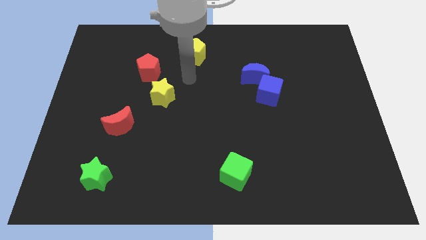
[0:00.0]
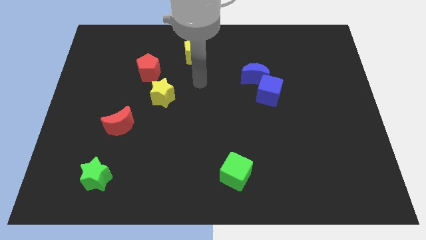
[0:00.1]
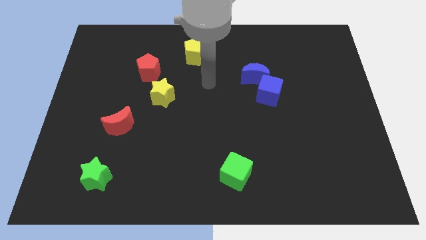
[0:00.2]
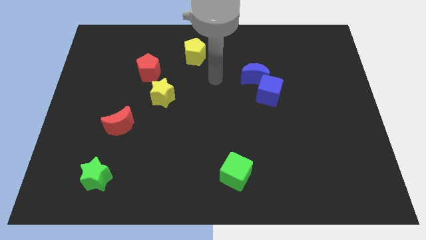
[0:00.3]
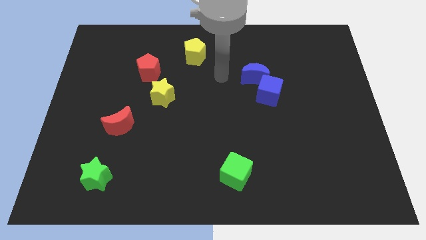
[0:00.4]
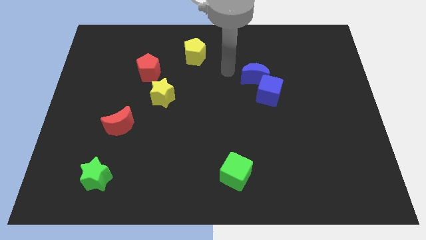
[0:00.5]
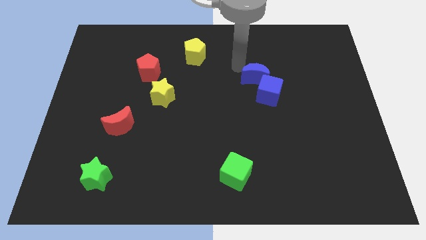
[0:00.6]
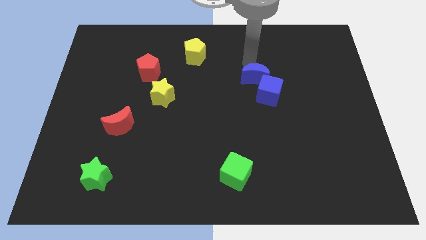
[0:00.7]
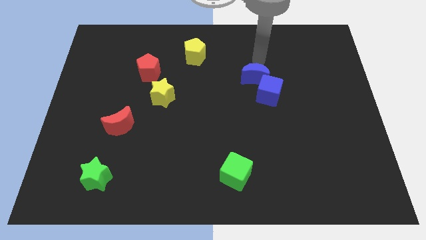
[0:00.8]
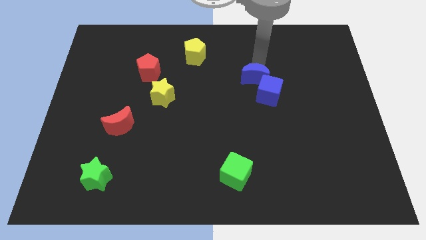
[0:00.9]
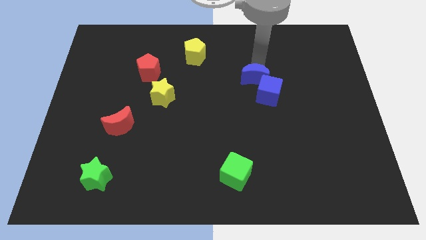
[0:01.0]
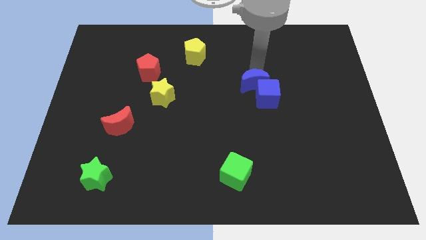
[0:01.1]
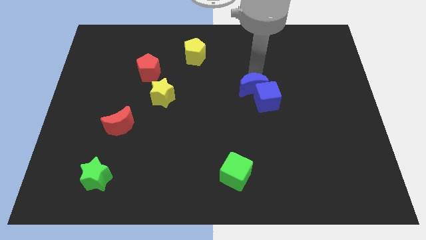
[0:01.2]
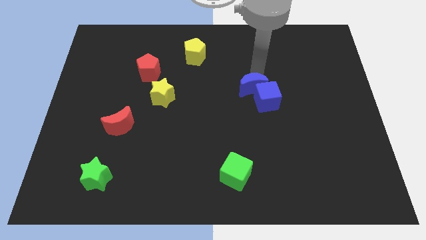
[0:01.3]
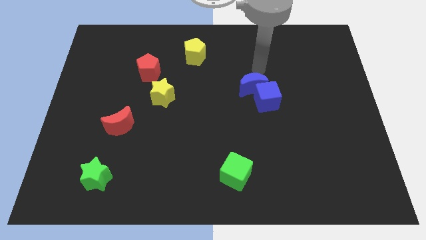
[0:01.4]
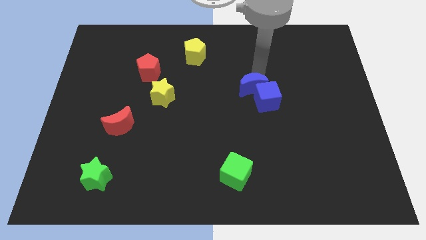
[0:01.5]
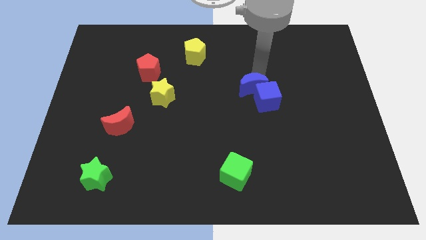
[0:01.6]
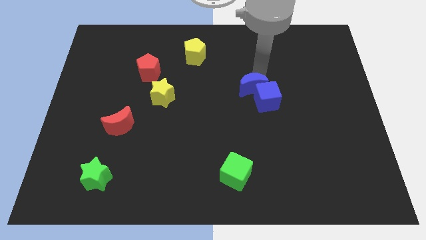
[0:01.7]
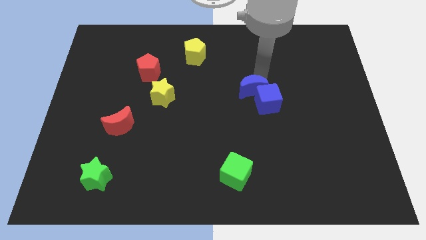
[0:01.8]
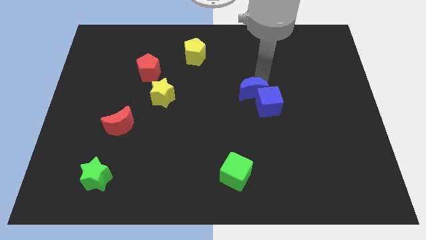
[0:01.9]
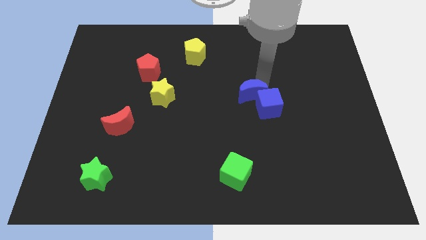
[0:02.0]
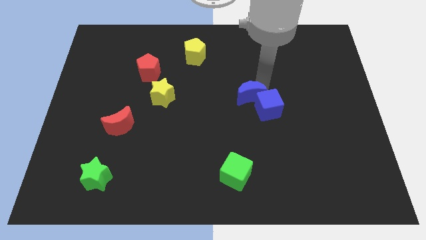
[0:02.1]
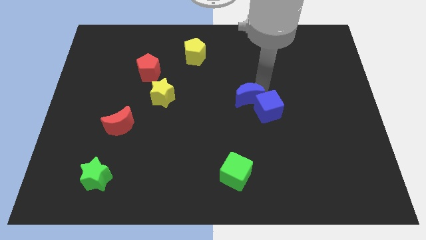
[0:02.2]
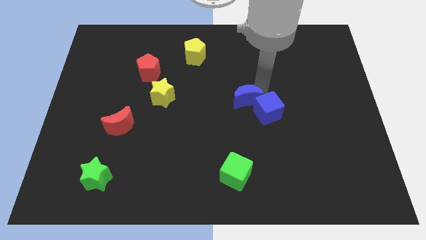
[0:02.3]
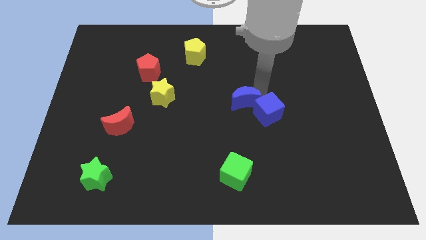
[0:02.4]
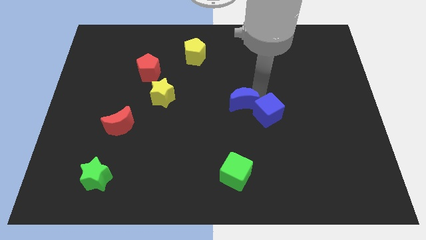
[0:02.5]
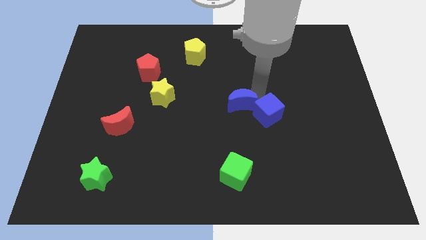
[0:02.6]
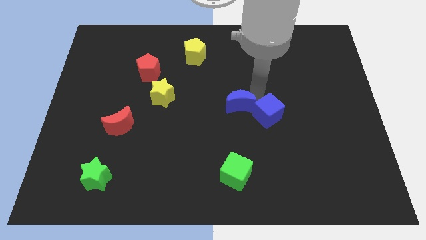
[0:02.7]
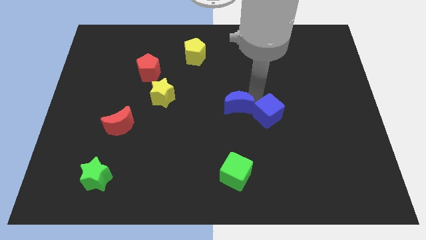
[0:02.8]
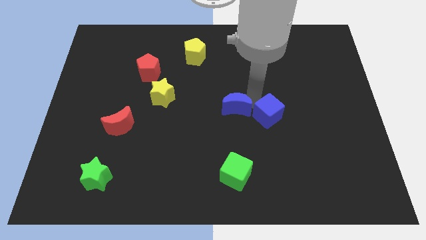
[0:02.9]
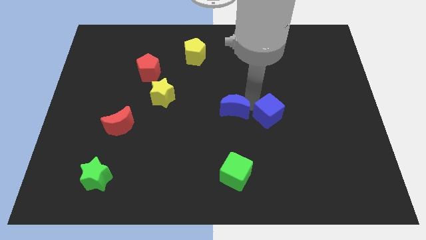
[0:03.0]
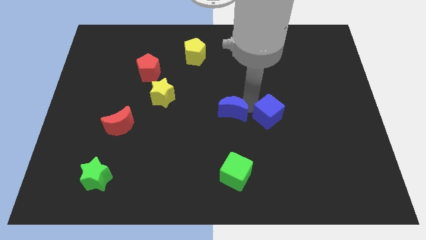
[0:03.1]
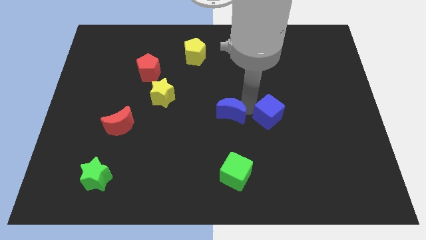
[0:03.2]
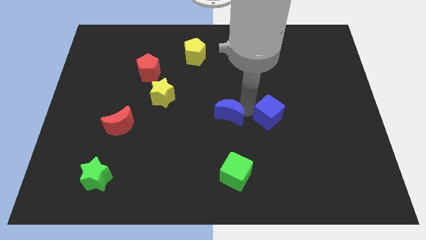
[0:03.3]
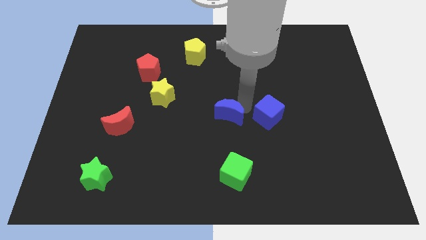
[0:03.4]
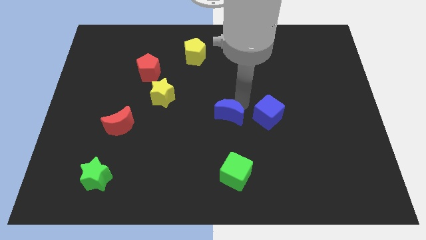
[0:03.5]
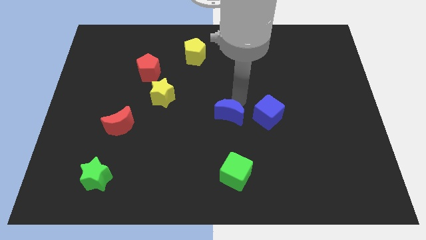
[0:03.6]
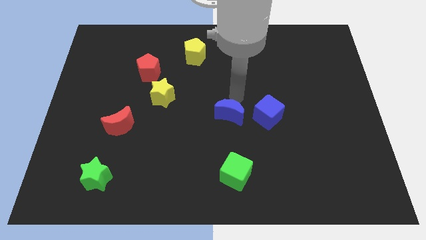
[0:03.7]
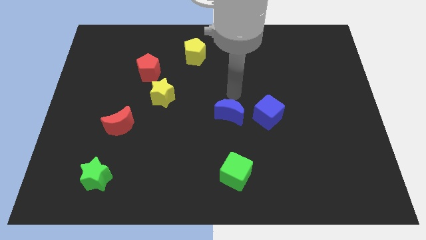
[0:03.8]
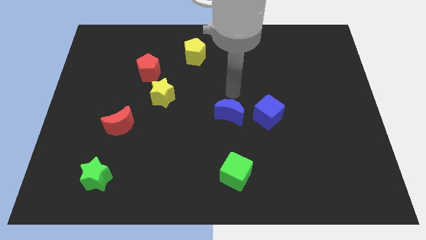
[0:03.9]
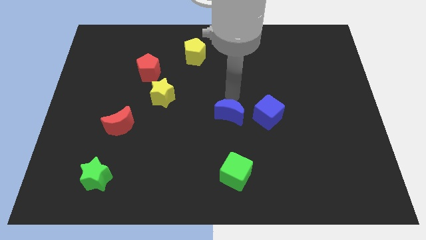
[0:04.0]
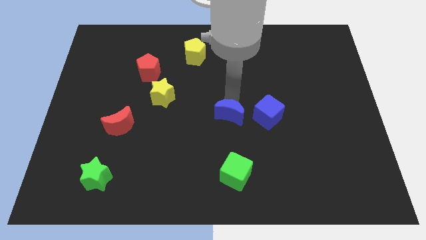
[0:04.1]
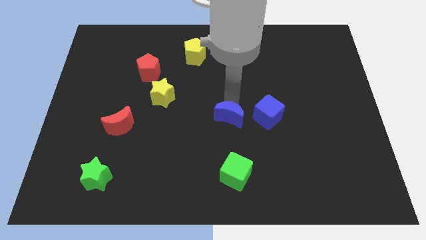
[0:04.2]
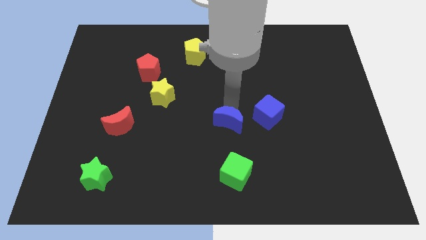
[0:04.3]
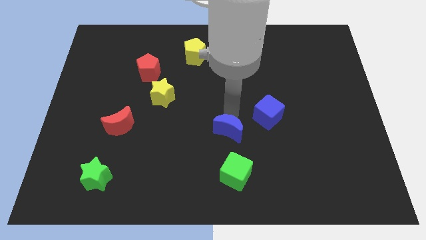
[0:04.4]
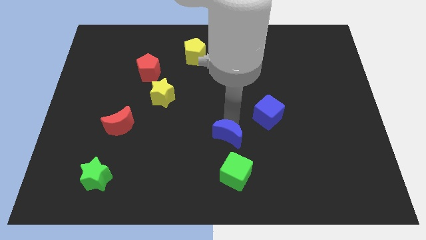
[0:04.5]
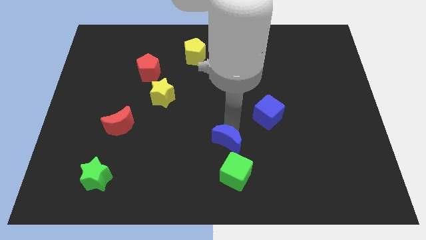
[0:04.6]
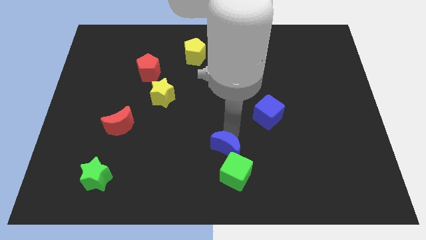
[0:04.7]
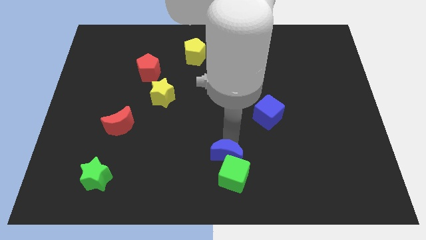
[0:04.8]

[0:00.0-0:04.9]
put the blue moon to the bottom side

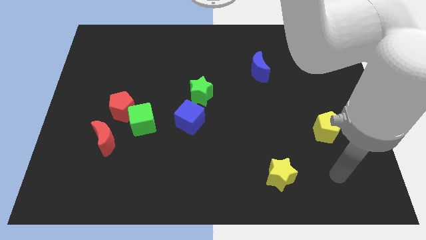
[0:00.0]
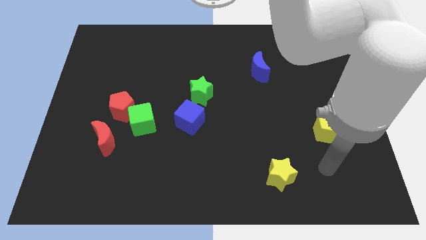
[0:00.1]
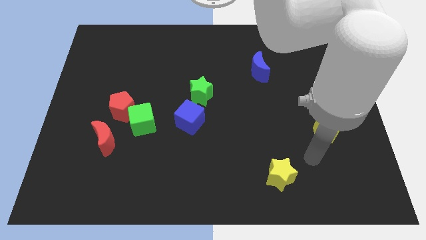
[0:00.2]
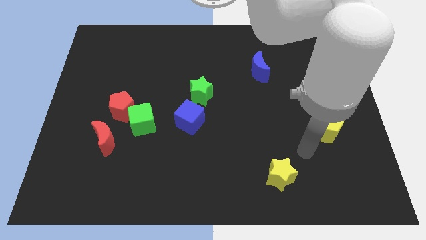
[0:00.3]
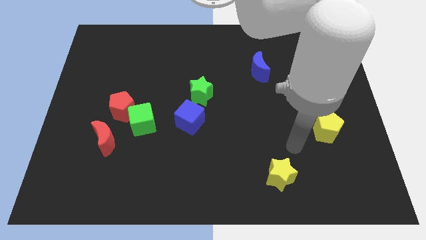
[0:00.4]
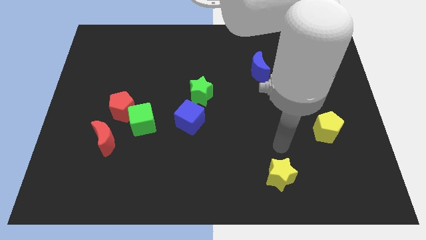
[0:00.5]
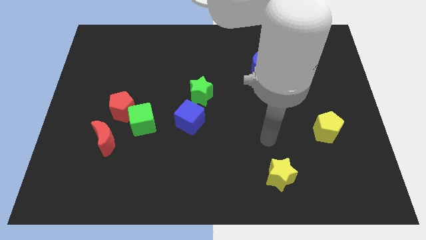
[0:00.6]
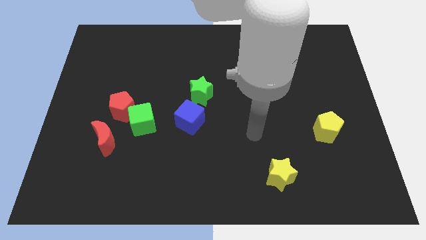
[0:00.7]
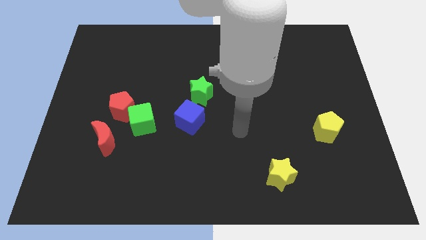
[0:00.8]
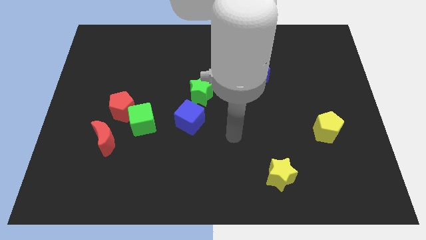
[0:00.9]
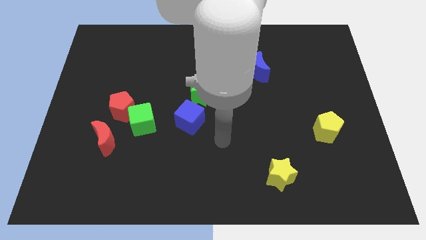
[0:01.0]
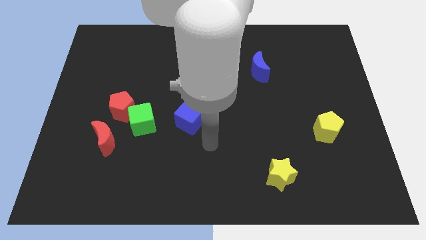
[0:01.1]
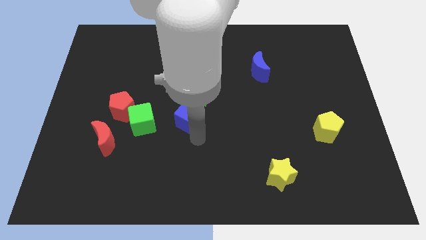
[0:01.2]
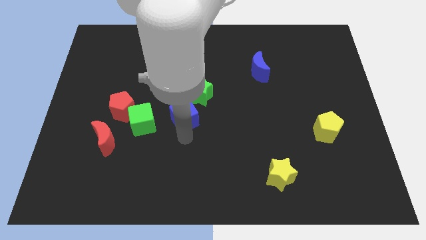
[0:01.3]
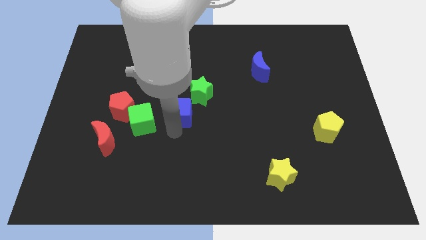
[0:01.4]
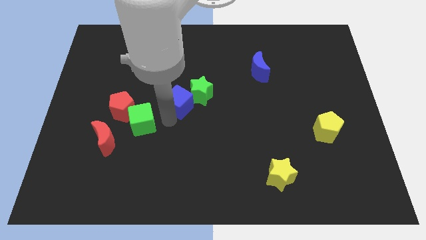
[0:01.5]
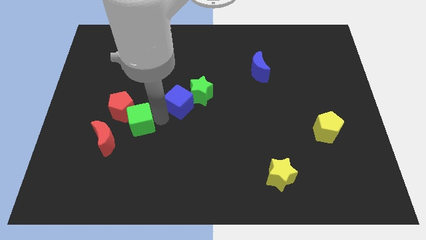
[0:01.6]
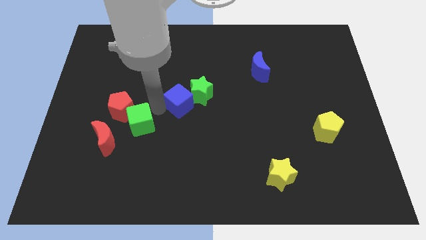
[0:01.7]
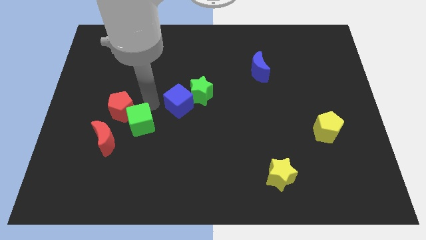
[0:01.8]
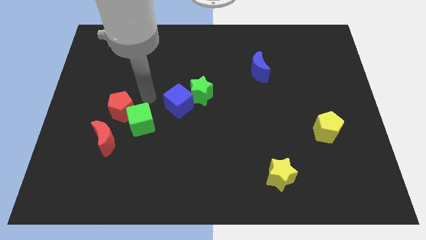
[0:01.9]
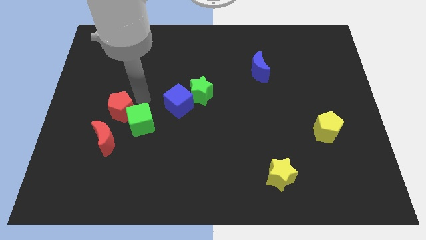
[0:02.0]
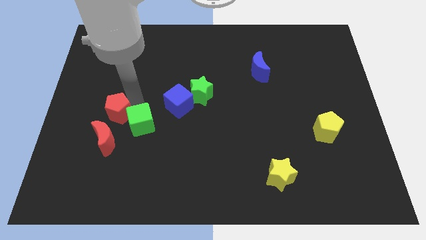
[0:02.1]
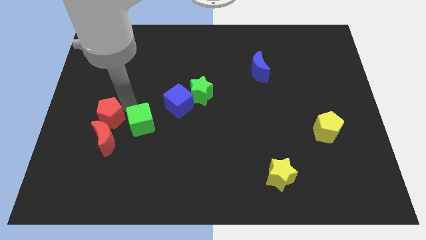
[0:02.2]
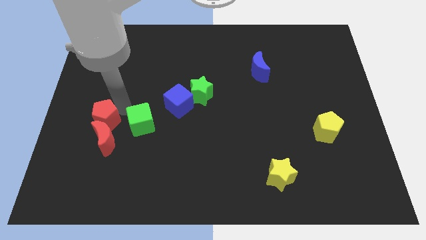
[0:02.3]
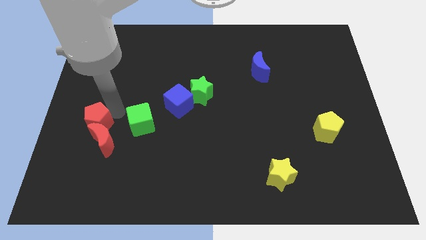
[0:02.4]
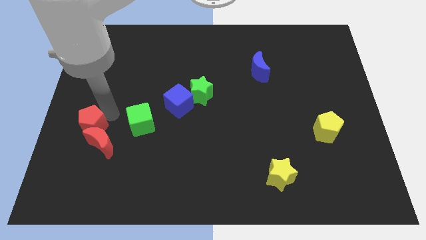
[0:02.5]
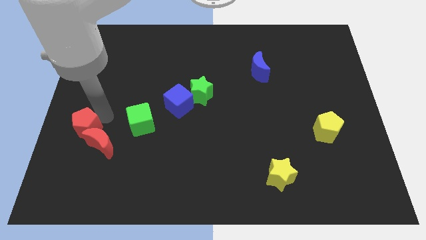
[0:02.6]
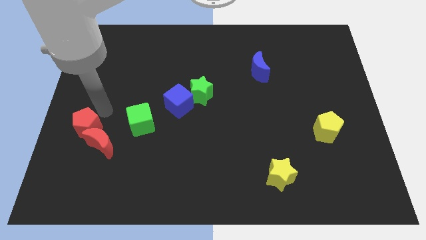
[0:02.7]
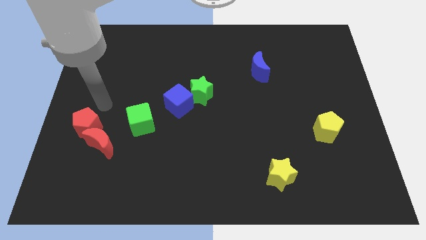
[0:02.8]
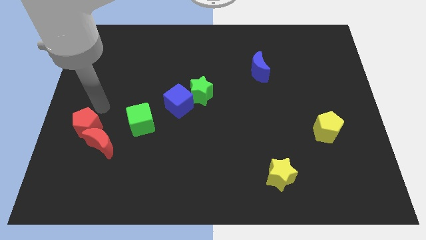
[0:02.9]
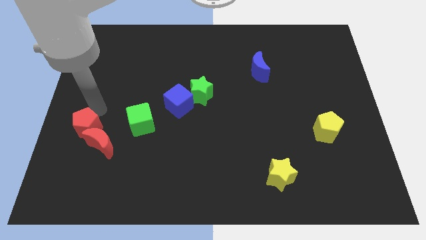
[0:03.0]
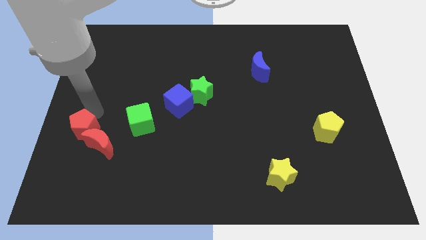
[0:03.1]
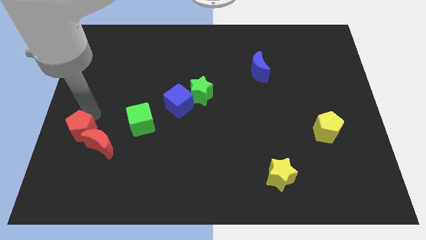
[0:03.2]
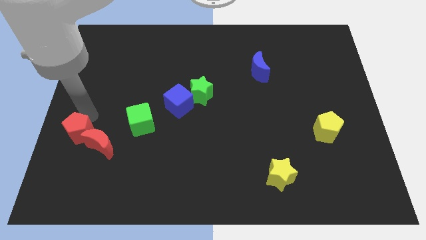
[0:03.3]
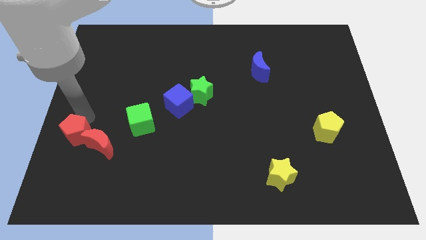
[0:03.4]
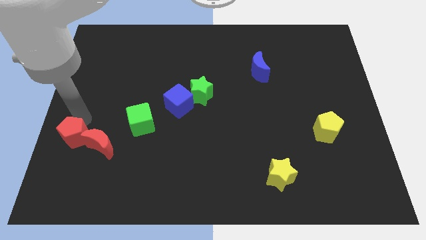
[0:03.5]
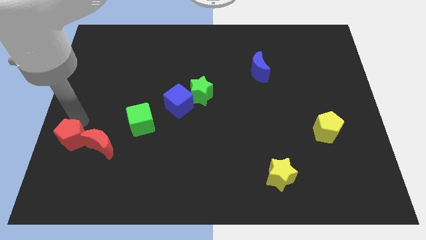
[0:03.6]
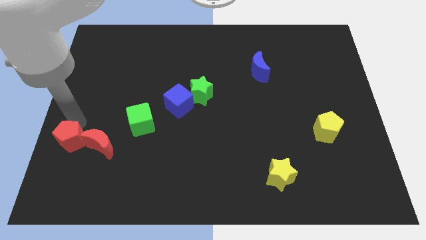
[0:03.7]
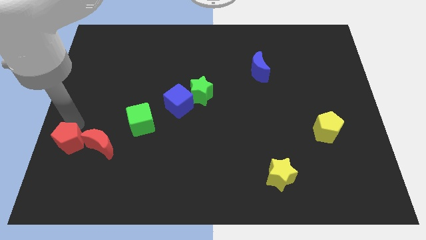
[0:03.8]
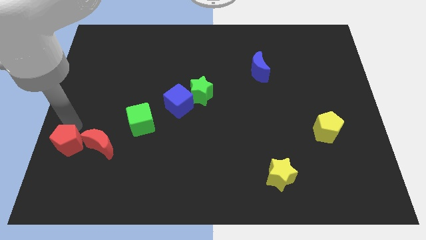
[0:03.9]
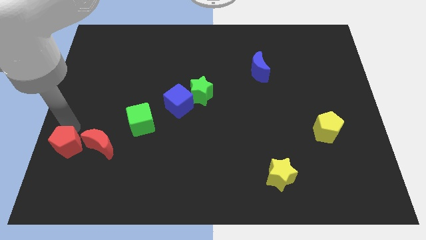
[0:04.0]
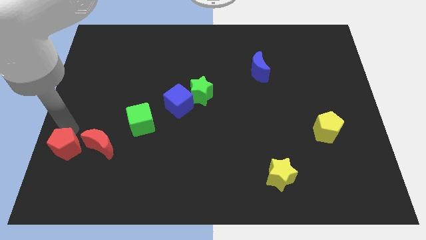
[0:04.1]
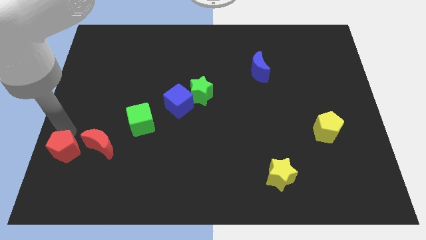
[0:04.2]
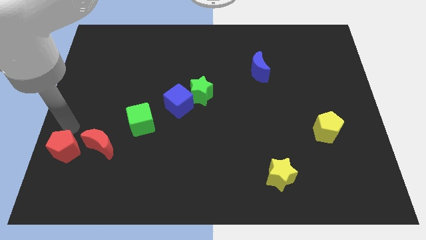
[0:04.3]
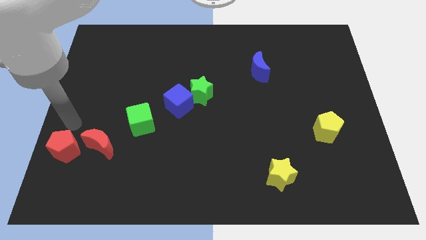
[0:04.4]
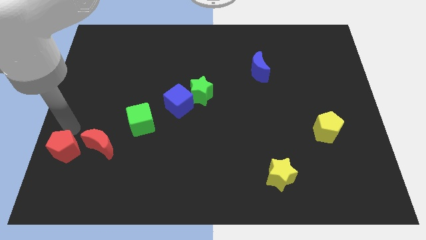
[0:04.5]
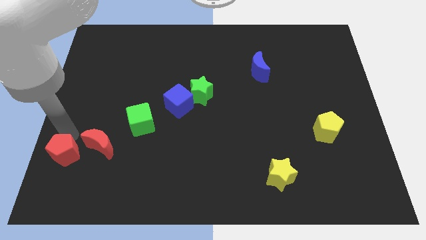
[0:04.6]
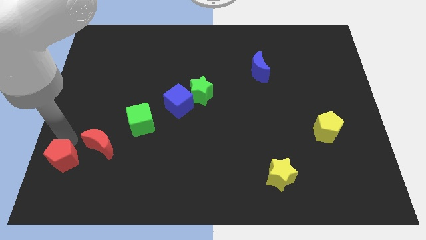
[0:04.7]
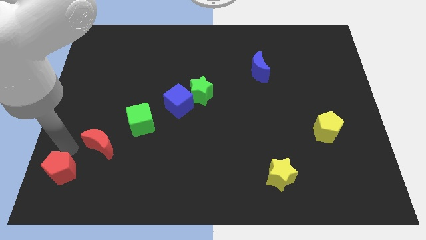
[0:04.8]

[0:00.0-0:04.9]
move the red pentagon to the bottom left corner
